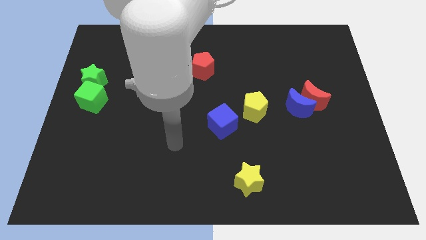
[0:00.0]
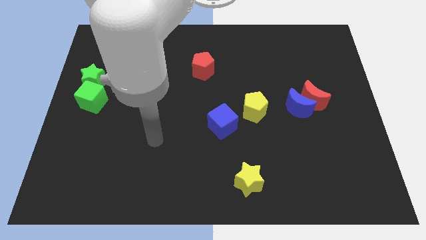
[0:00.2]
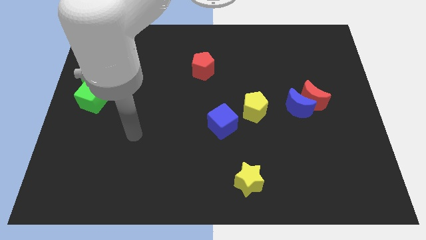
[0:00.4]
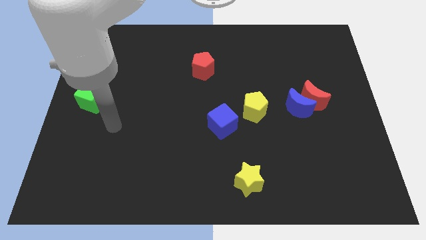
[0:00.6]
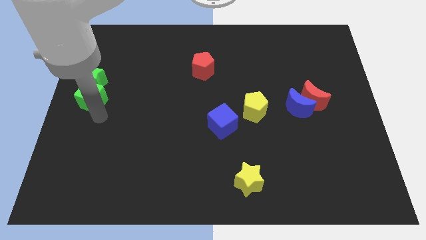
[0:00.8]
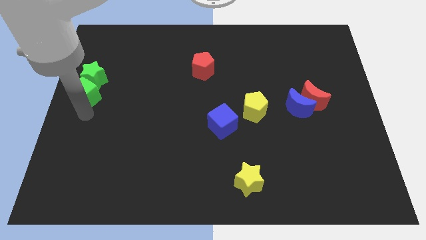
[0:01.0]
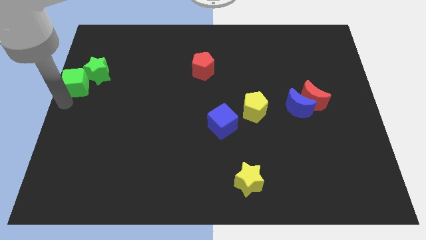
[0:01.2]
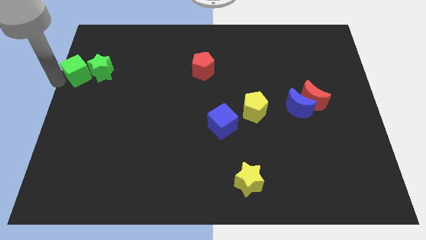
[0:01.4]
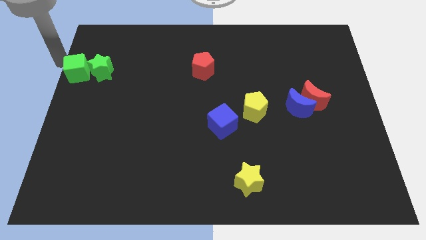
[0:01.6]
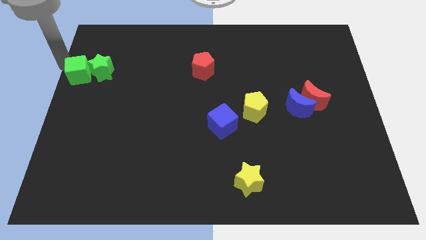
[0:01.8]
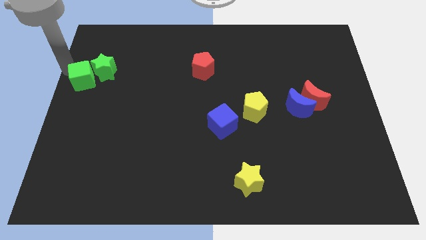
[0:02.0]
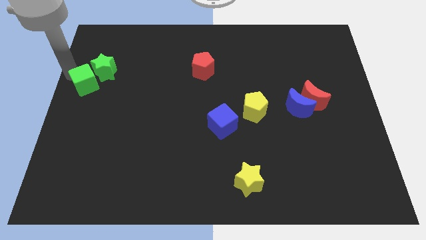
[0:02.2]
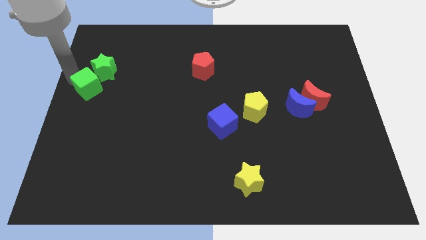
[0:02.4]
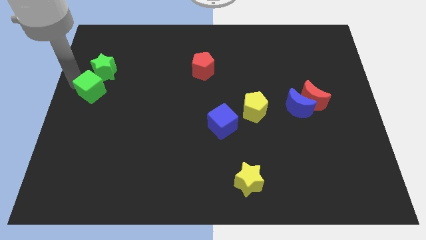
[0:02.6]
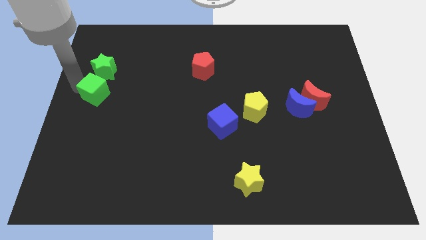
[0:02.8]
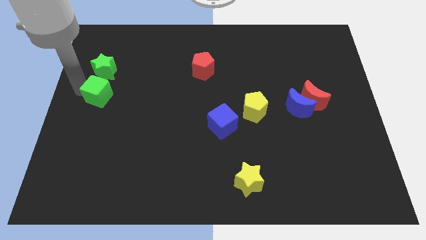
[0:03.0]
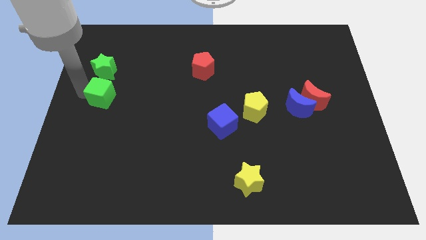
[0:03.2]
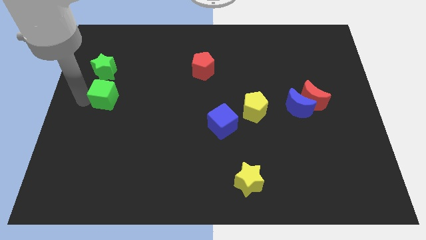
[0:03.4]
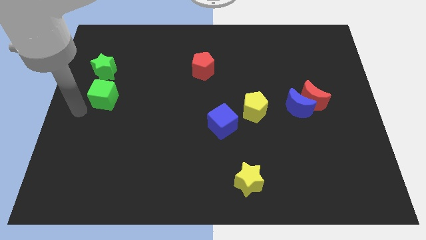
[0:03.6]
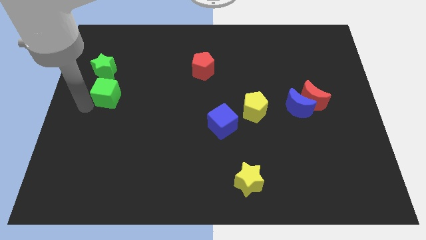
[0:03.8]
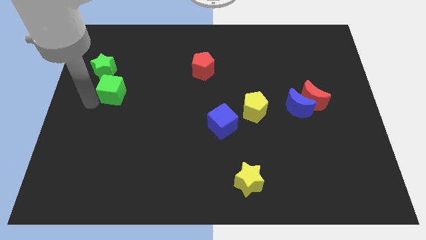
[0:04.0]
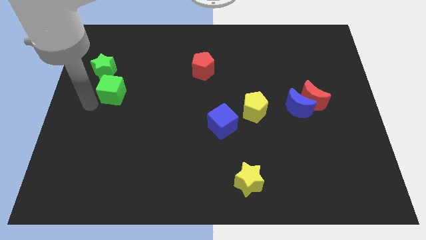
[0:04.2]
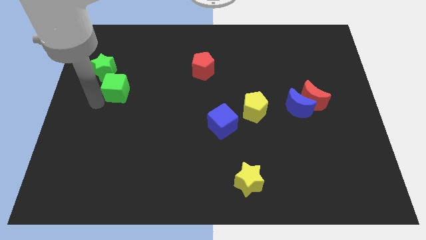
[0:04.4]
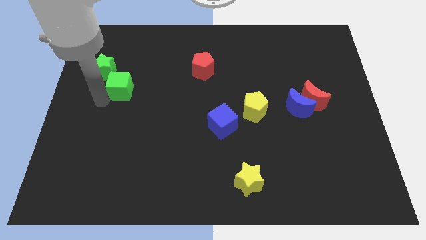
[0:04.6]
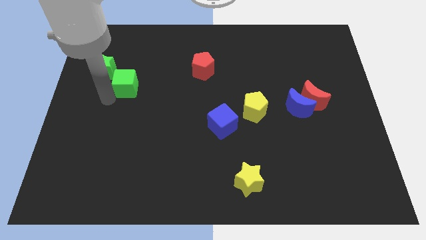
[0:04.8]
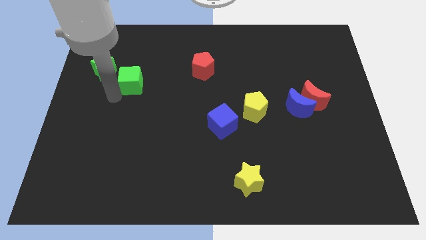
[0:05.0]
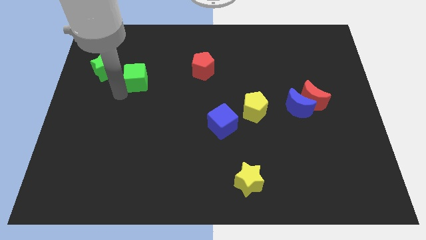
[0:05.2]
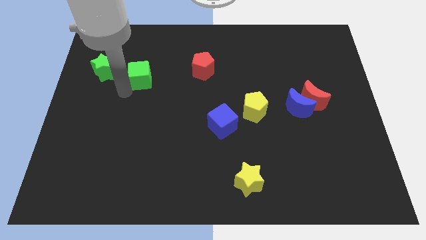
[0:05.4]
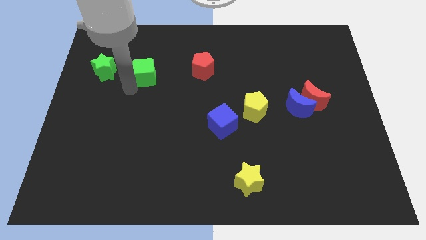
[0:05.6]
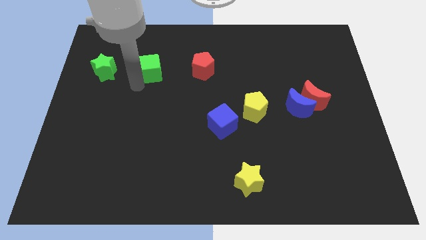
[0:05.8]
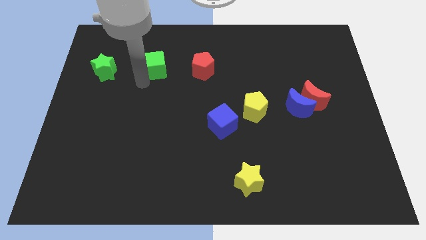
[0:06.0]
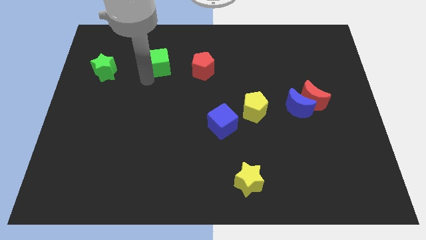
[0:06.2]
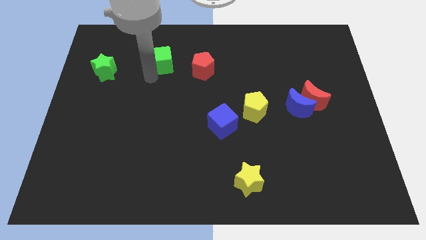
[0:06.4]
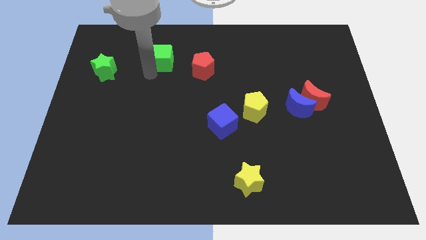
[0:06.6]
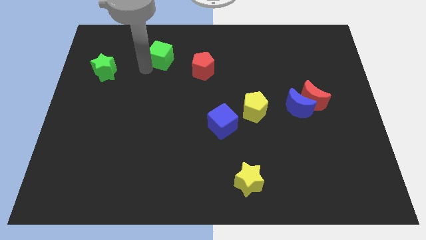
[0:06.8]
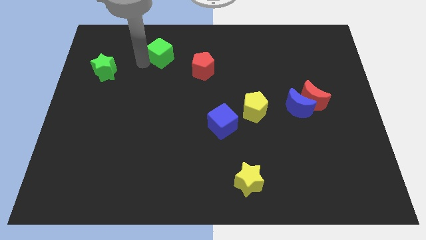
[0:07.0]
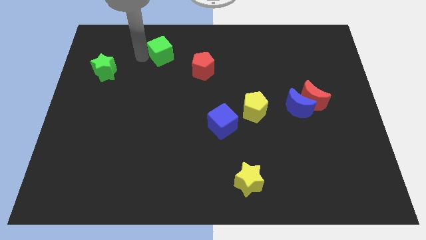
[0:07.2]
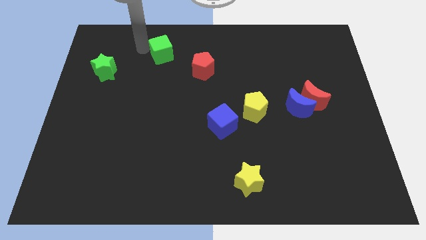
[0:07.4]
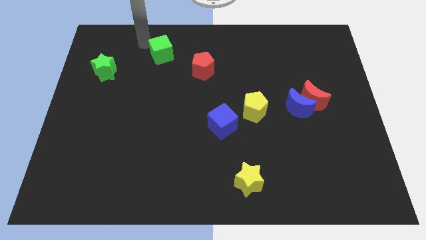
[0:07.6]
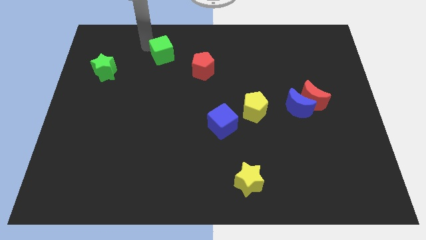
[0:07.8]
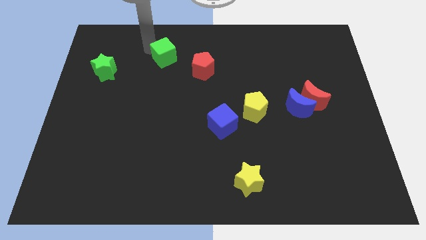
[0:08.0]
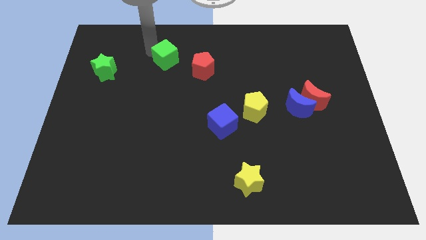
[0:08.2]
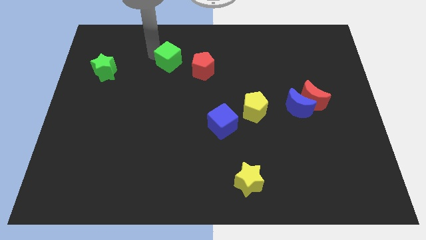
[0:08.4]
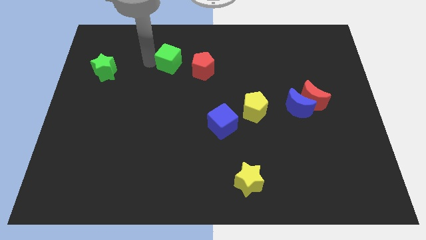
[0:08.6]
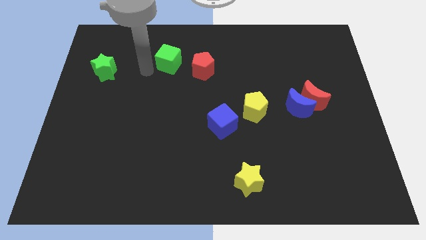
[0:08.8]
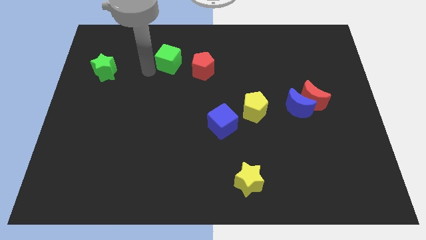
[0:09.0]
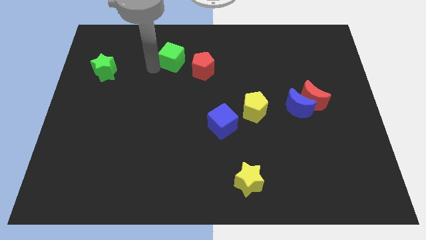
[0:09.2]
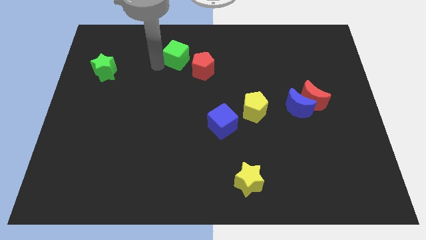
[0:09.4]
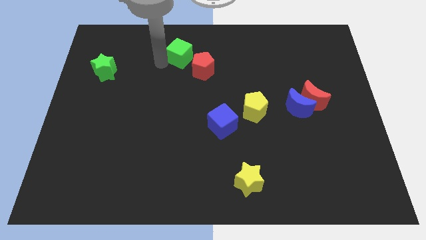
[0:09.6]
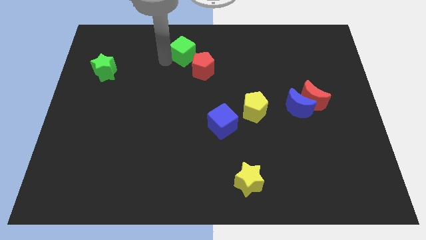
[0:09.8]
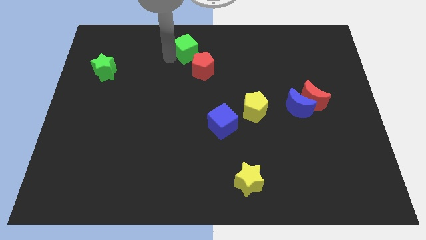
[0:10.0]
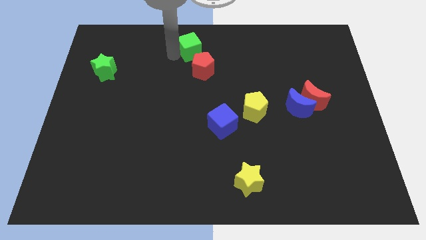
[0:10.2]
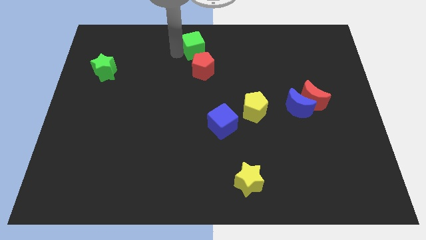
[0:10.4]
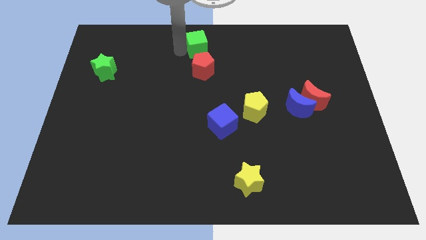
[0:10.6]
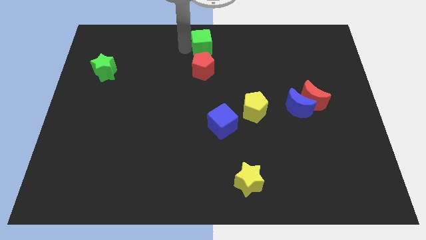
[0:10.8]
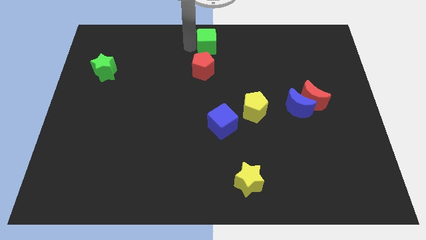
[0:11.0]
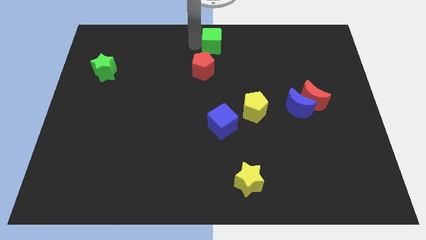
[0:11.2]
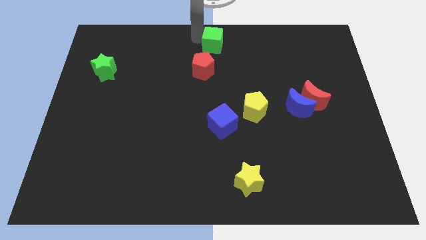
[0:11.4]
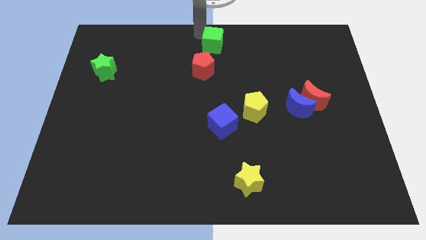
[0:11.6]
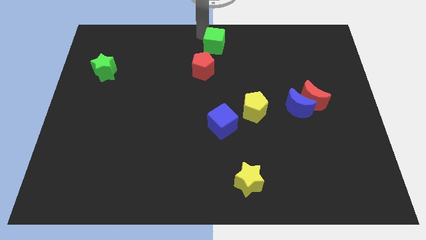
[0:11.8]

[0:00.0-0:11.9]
put the green cube diagonally up and to the right of the red pentagon
